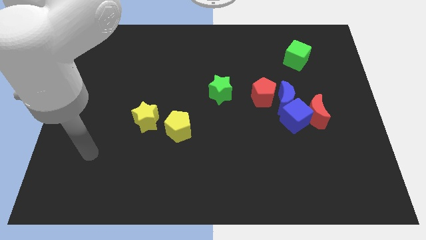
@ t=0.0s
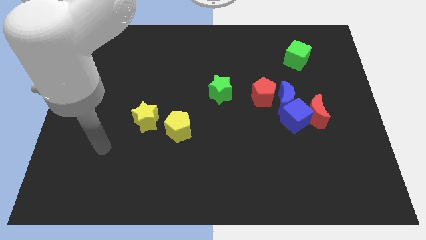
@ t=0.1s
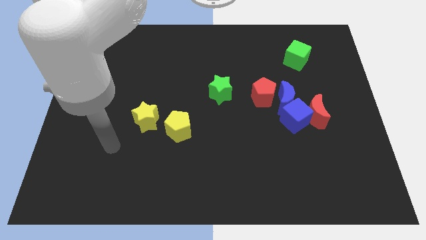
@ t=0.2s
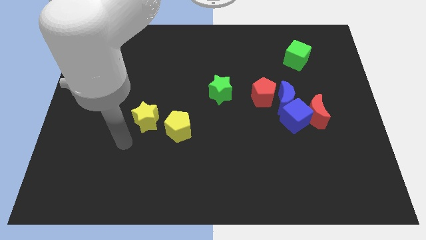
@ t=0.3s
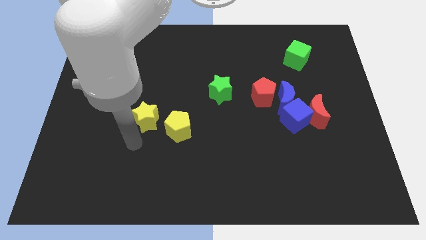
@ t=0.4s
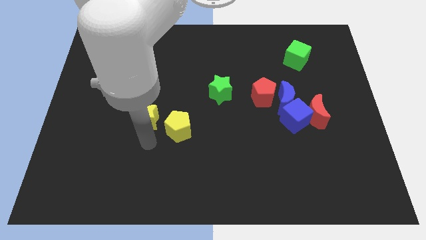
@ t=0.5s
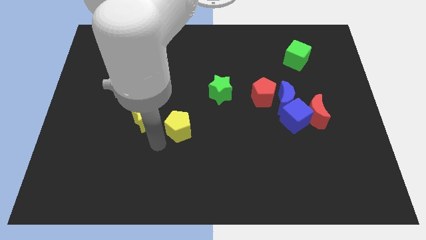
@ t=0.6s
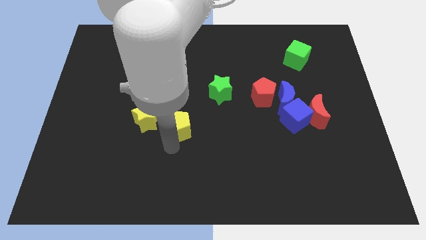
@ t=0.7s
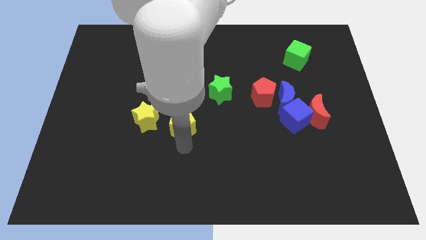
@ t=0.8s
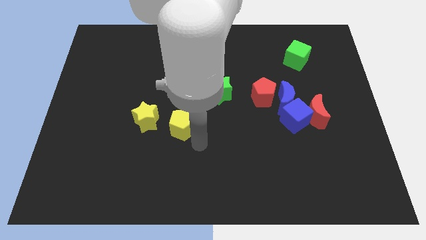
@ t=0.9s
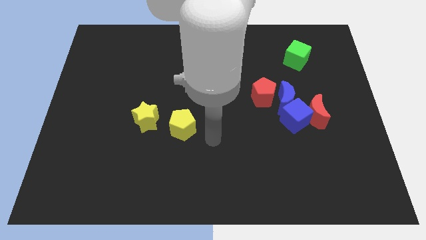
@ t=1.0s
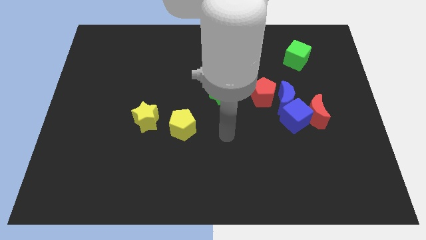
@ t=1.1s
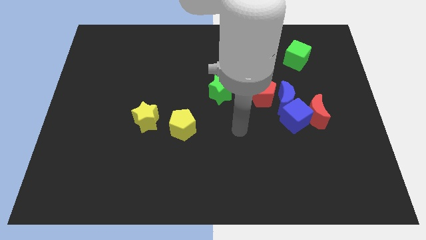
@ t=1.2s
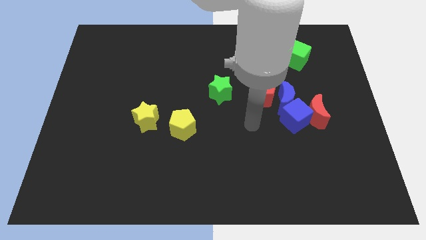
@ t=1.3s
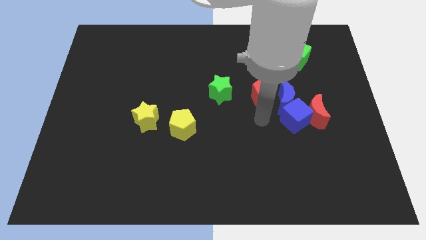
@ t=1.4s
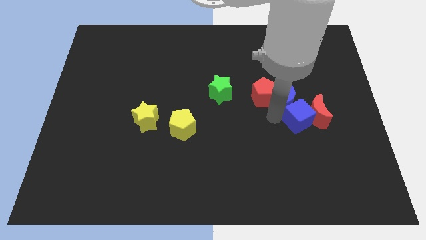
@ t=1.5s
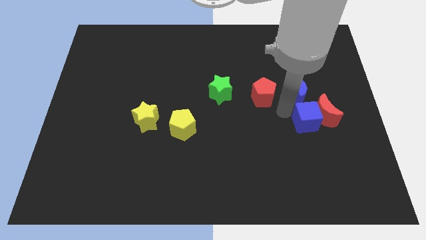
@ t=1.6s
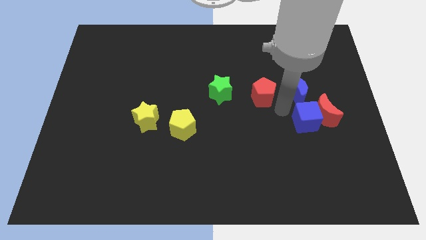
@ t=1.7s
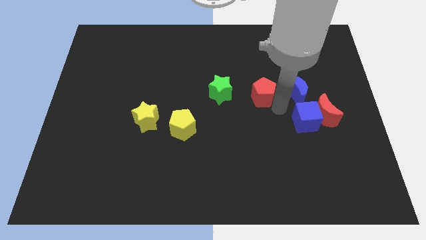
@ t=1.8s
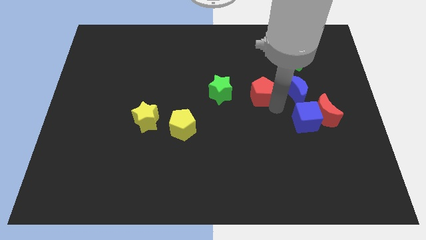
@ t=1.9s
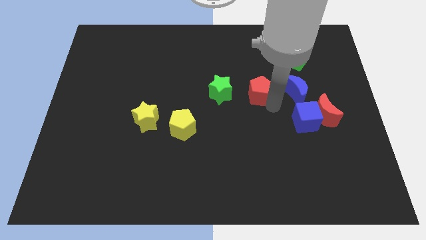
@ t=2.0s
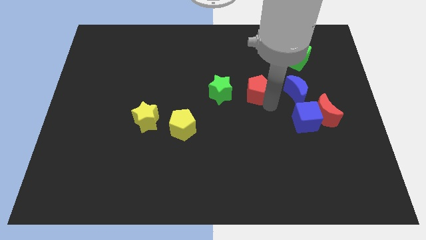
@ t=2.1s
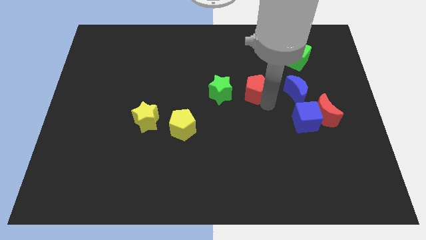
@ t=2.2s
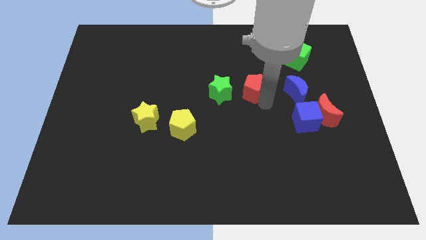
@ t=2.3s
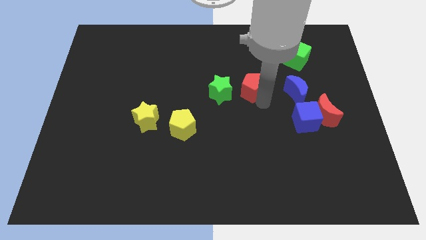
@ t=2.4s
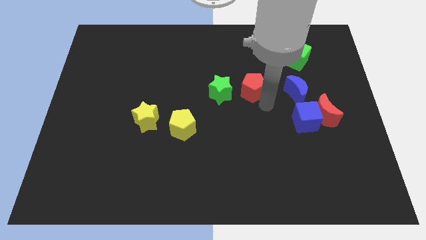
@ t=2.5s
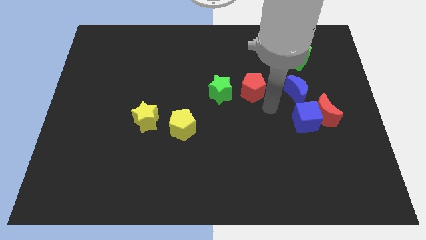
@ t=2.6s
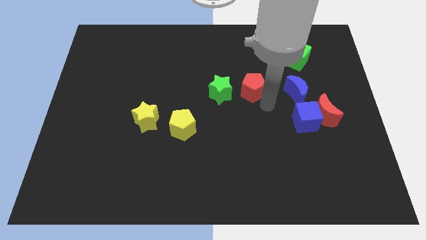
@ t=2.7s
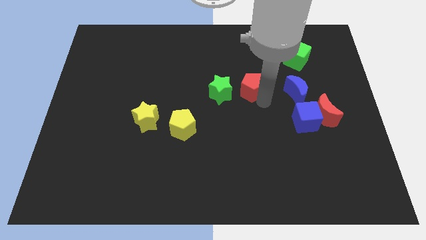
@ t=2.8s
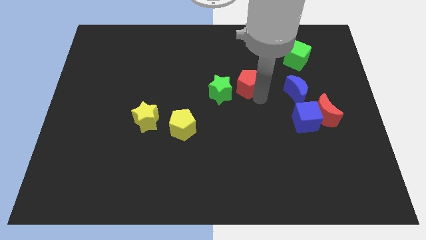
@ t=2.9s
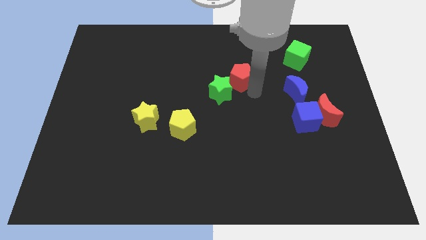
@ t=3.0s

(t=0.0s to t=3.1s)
slightly push the red pentagon up and left diagonally

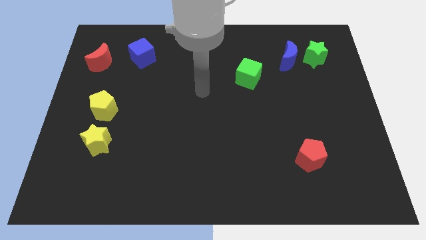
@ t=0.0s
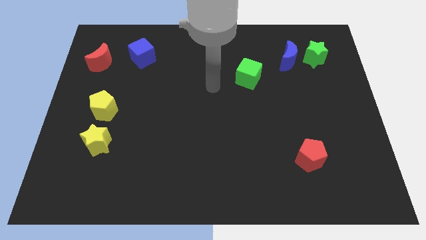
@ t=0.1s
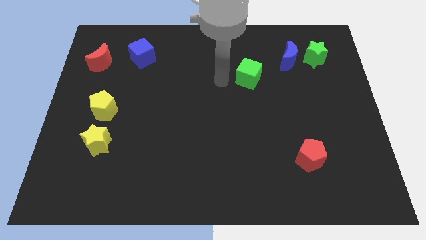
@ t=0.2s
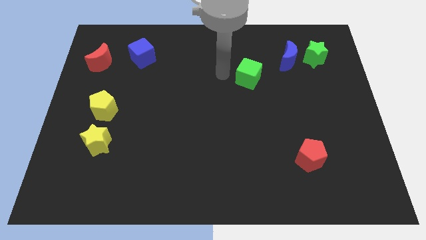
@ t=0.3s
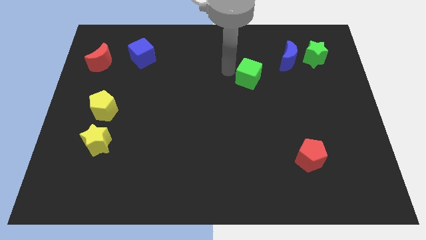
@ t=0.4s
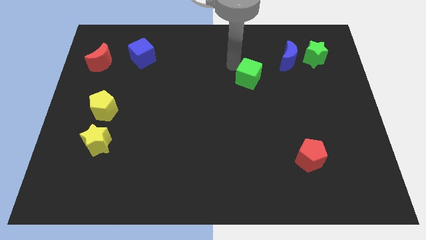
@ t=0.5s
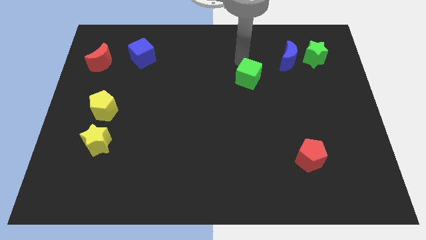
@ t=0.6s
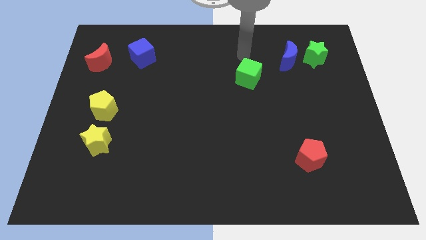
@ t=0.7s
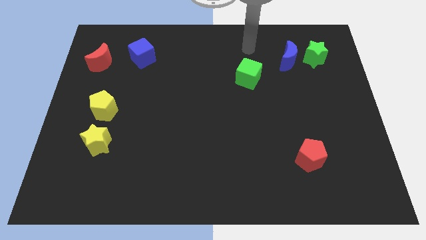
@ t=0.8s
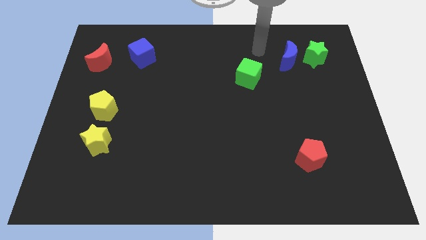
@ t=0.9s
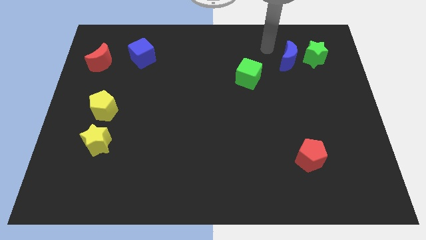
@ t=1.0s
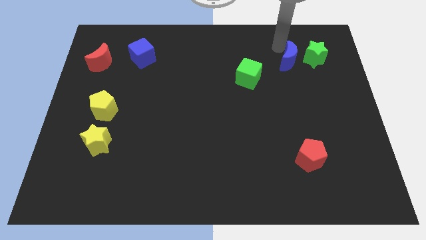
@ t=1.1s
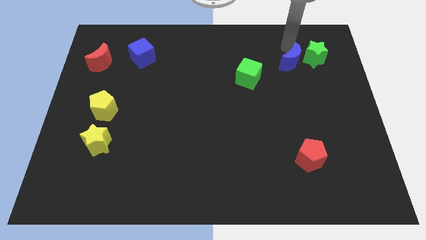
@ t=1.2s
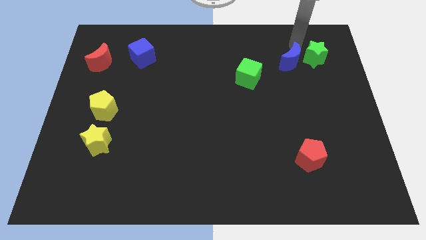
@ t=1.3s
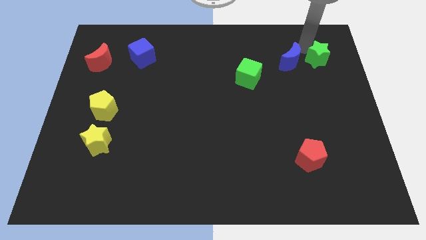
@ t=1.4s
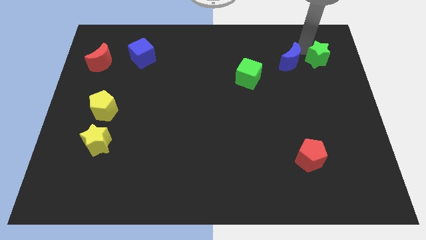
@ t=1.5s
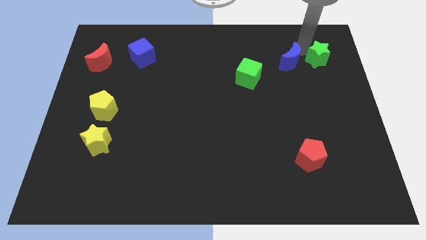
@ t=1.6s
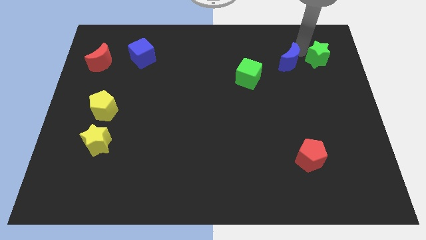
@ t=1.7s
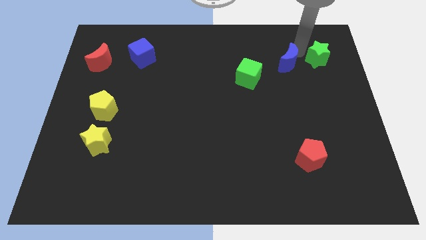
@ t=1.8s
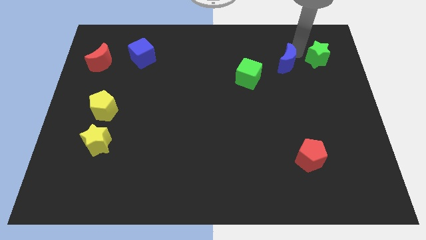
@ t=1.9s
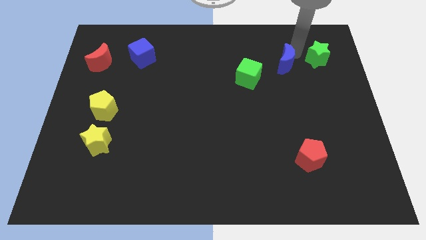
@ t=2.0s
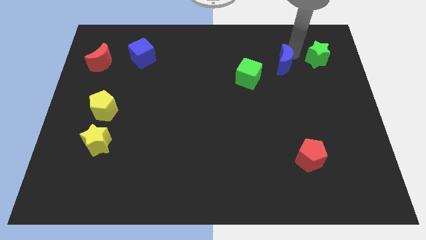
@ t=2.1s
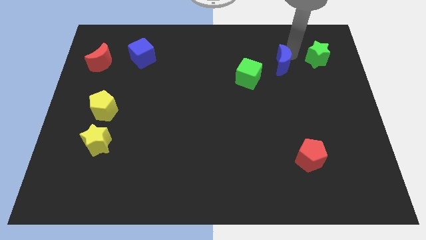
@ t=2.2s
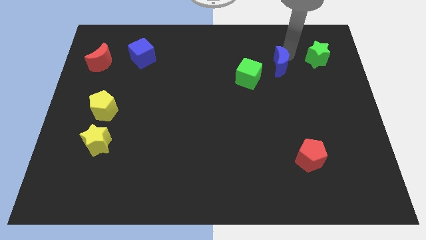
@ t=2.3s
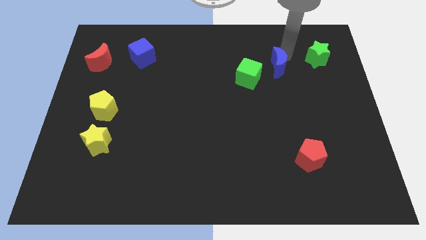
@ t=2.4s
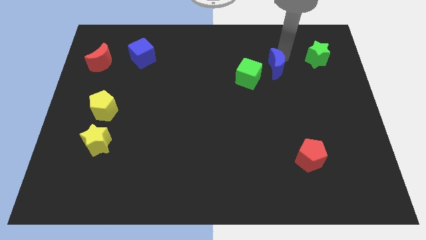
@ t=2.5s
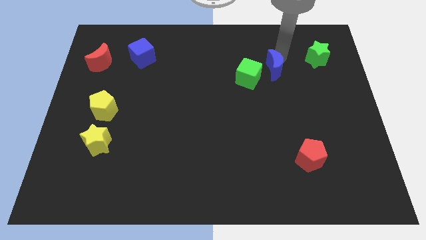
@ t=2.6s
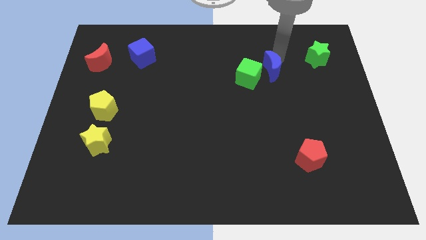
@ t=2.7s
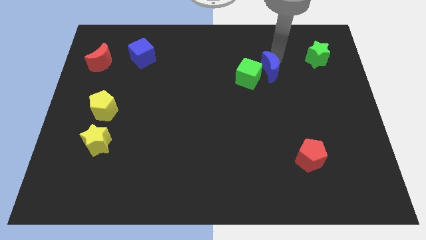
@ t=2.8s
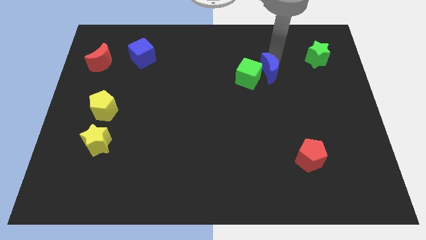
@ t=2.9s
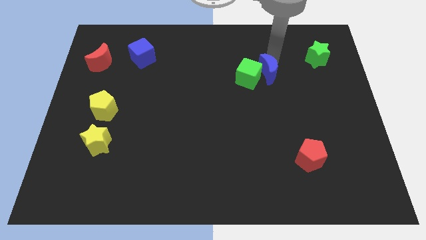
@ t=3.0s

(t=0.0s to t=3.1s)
push the blue moon a little bit down and then to the left

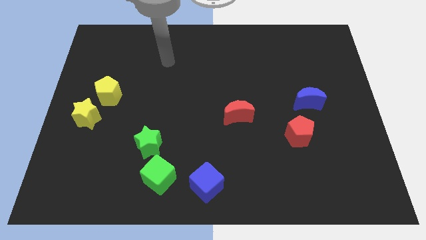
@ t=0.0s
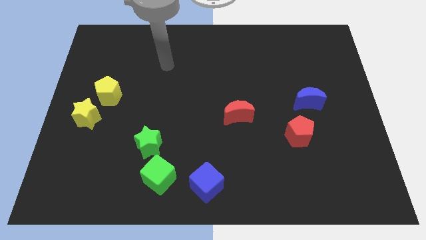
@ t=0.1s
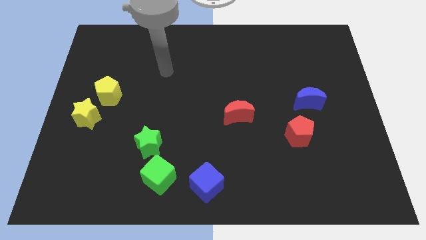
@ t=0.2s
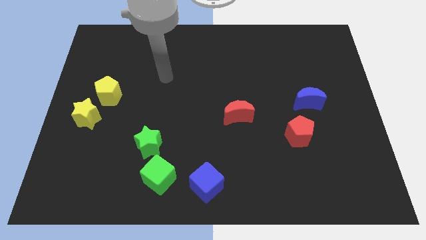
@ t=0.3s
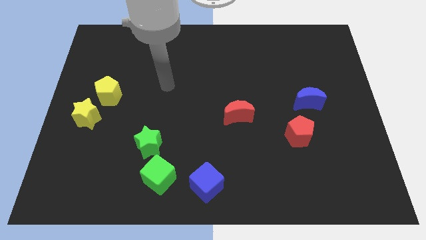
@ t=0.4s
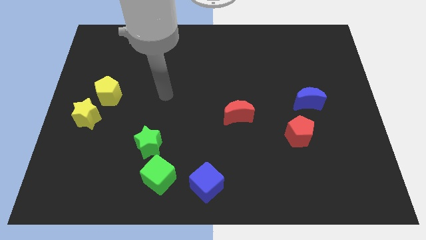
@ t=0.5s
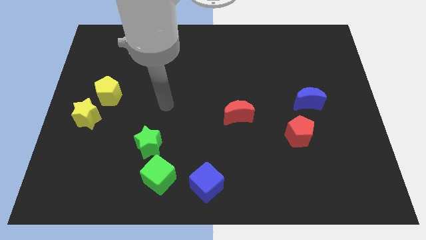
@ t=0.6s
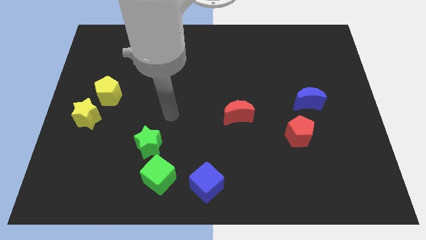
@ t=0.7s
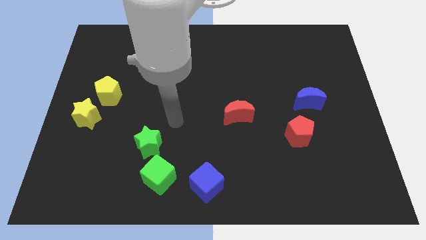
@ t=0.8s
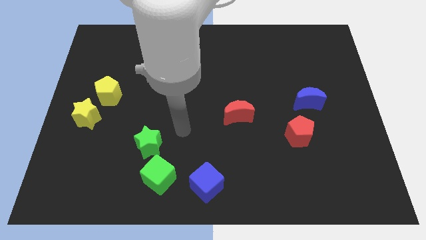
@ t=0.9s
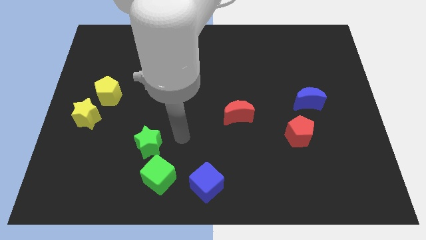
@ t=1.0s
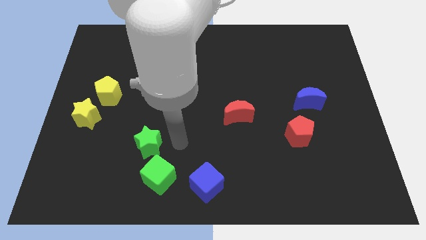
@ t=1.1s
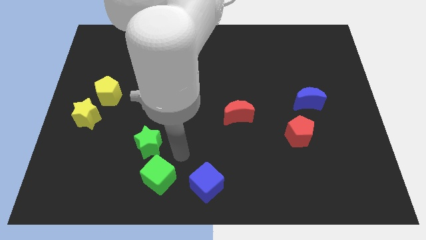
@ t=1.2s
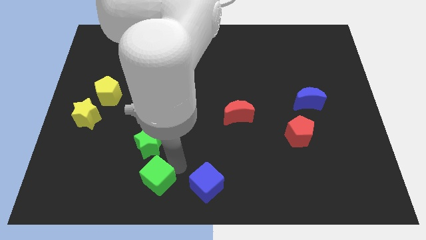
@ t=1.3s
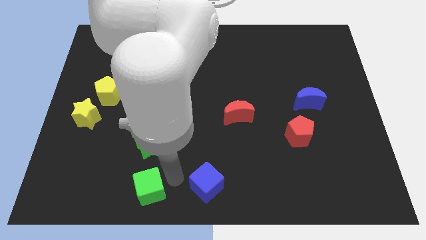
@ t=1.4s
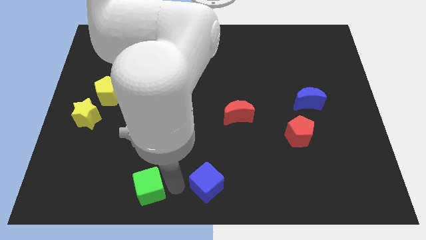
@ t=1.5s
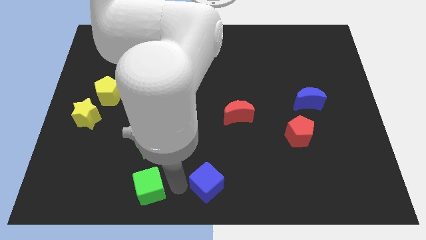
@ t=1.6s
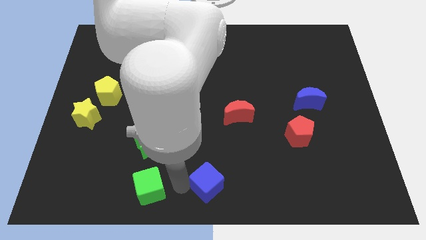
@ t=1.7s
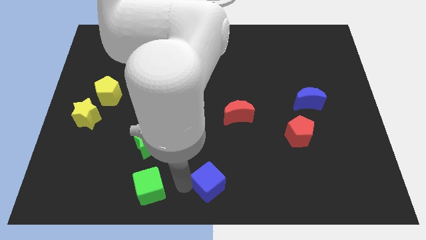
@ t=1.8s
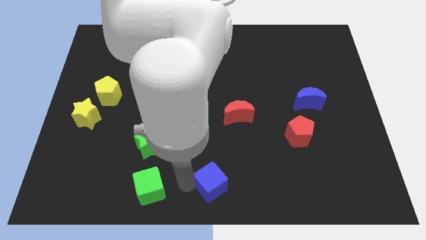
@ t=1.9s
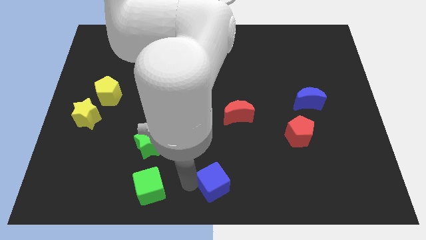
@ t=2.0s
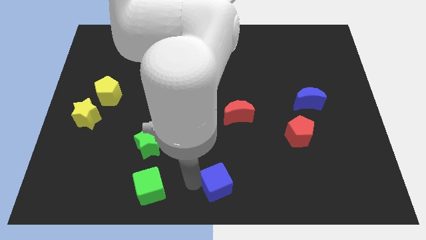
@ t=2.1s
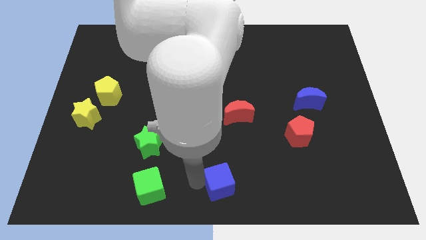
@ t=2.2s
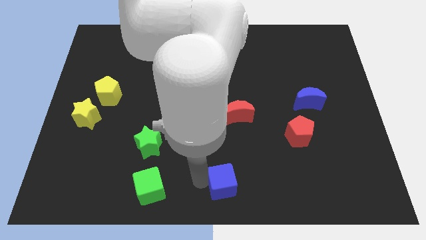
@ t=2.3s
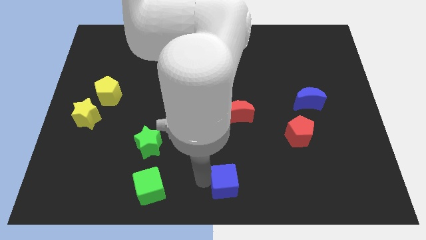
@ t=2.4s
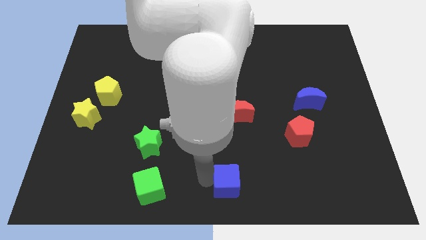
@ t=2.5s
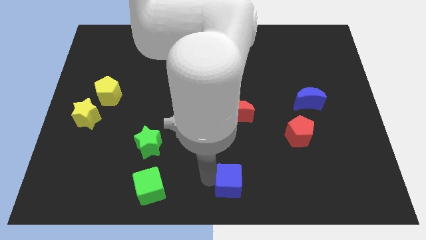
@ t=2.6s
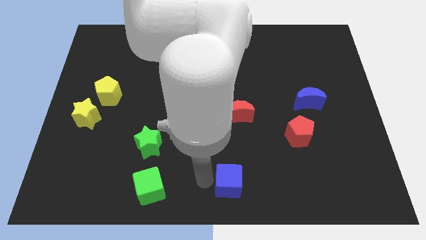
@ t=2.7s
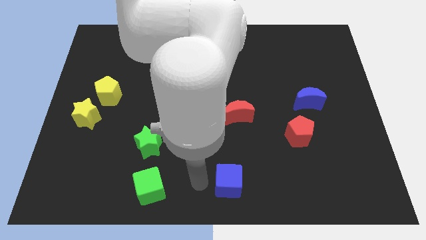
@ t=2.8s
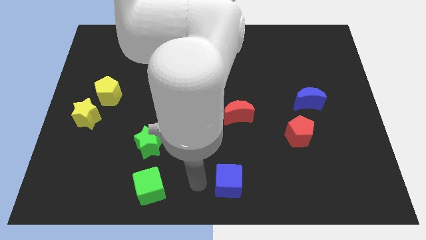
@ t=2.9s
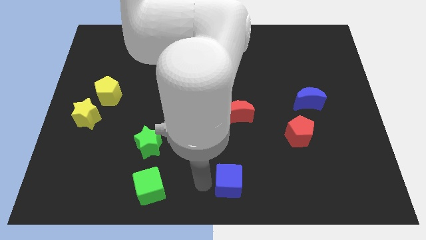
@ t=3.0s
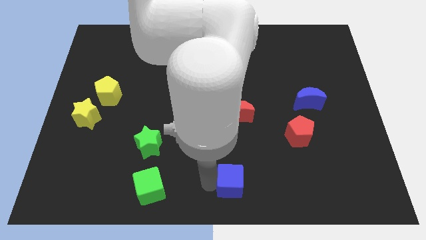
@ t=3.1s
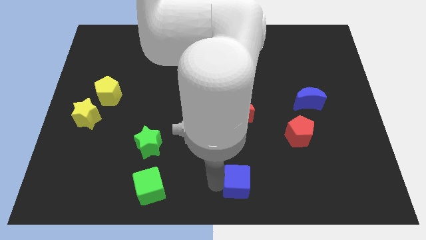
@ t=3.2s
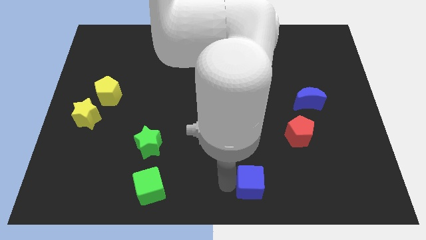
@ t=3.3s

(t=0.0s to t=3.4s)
move the blue cube to the right slightly
